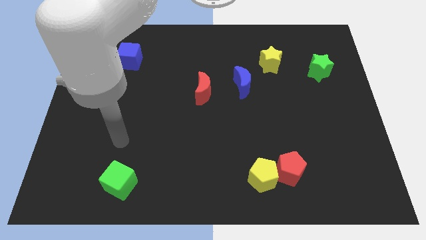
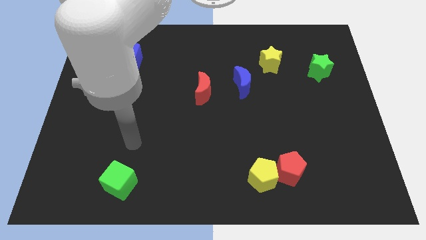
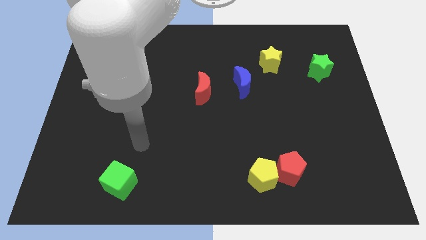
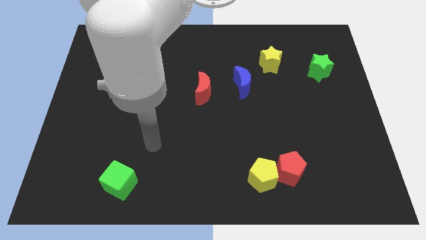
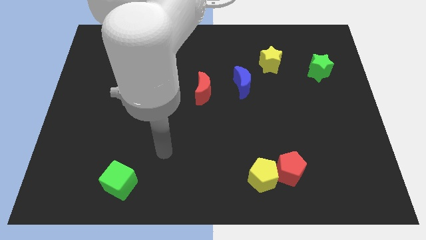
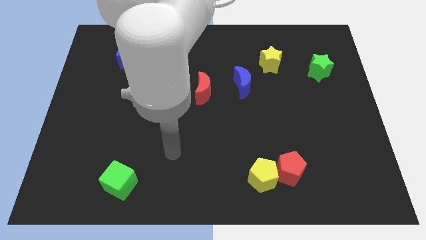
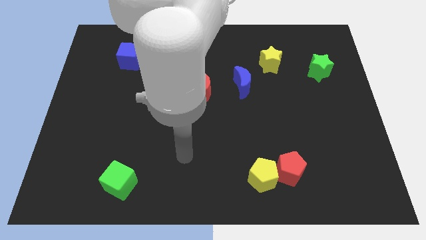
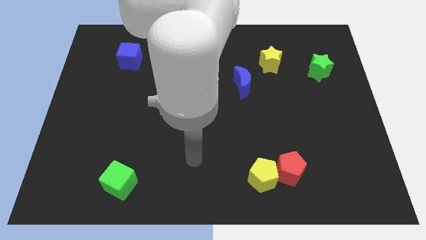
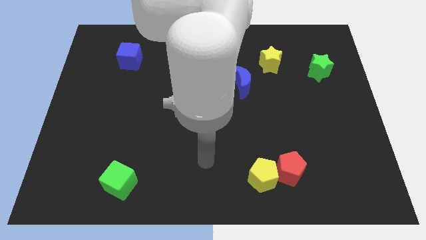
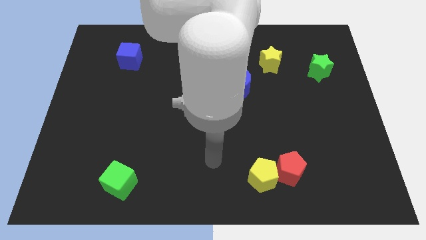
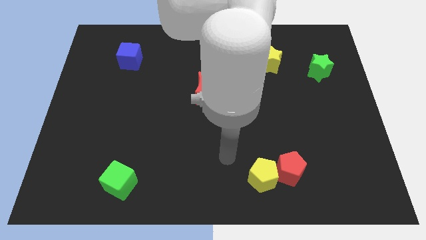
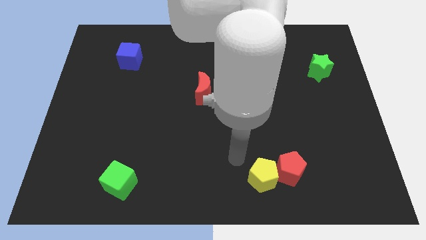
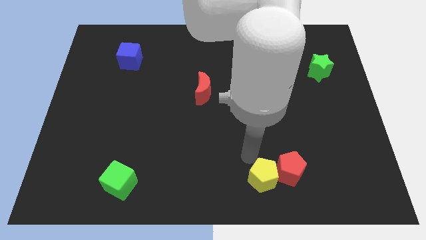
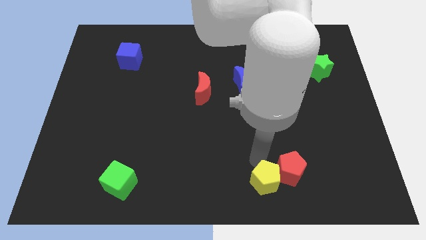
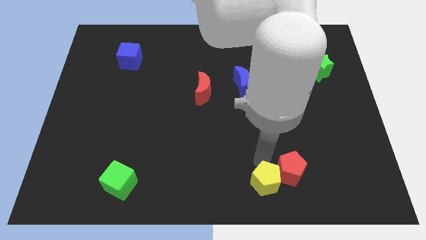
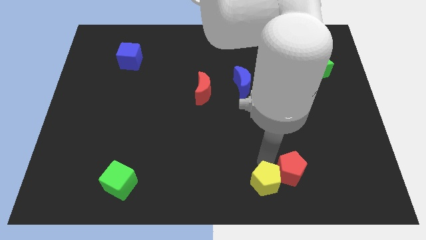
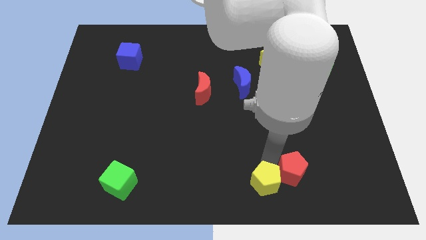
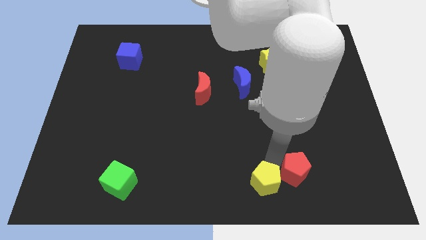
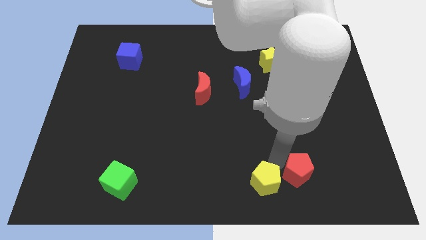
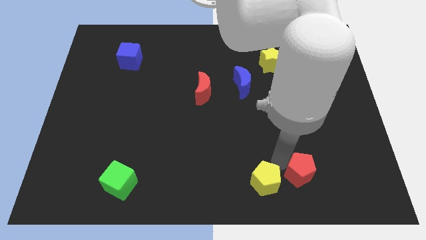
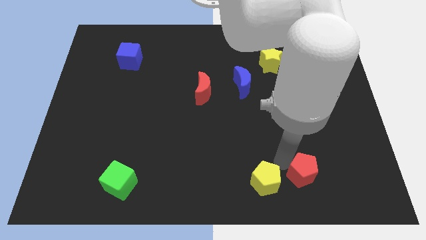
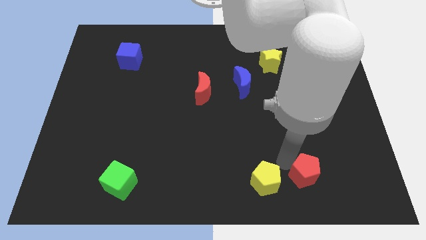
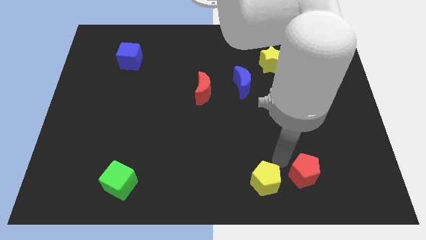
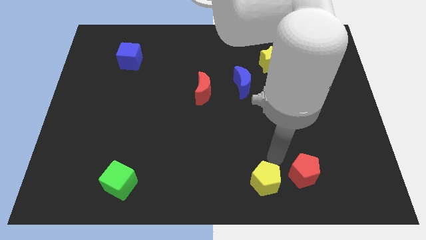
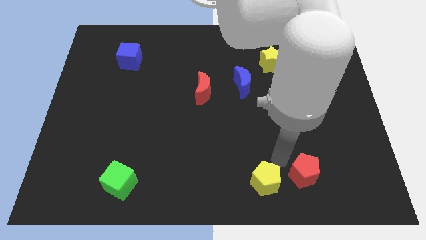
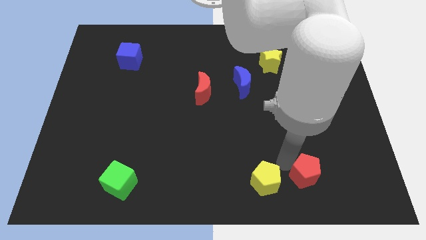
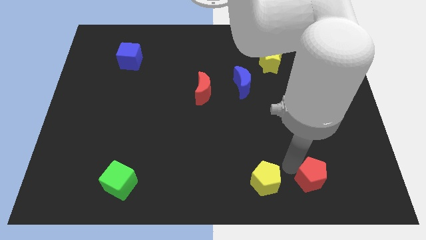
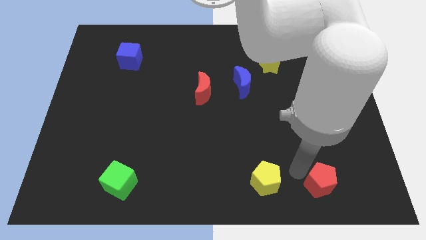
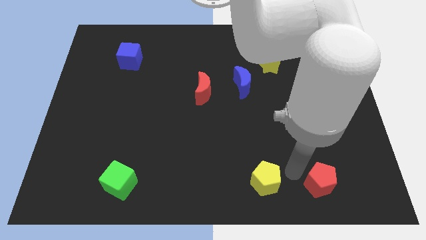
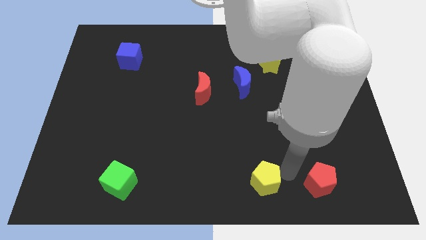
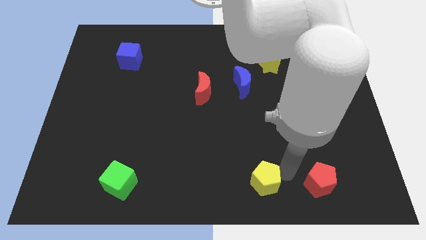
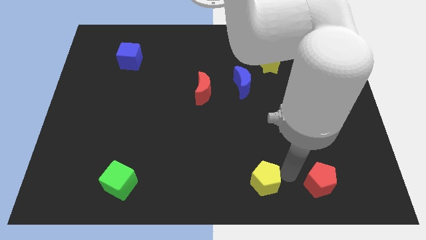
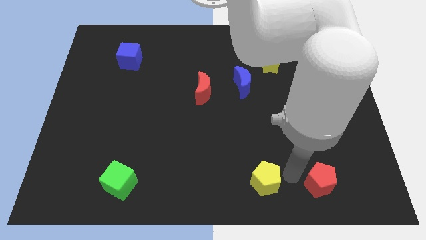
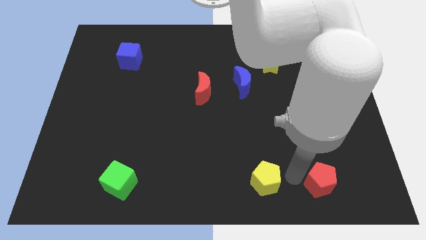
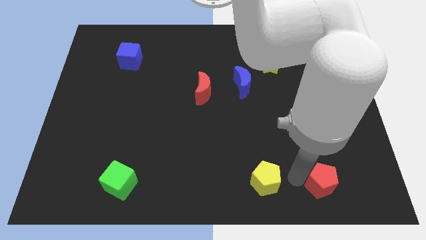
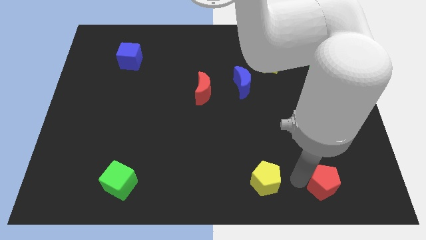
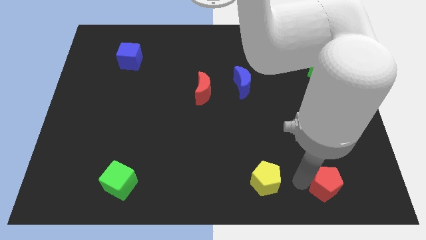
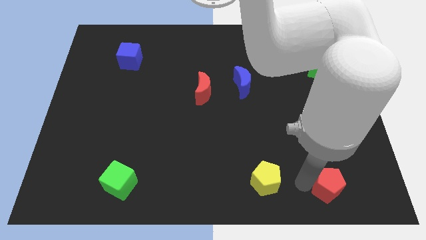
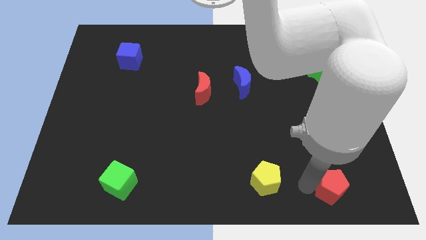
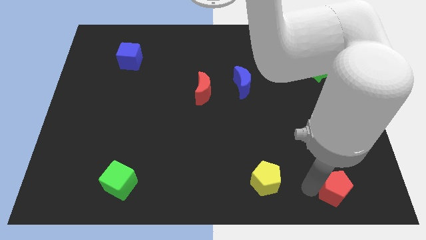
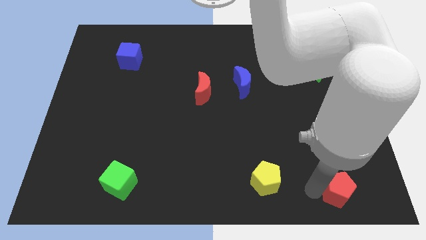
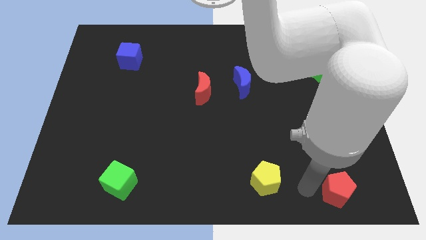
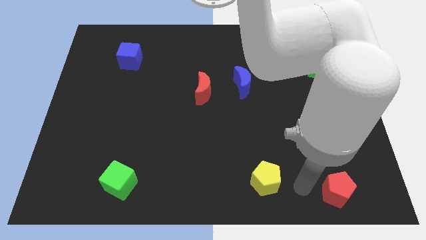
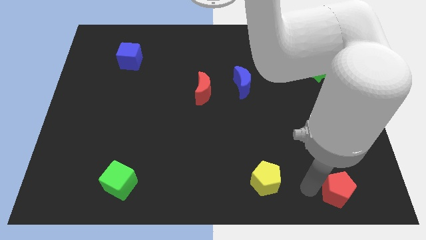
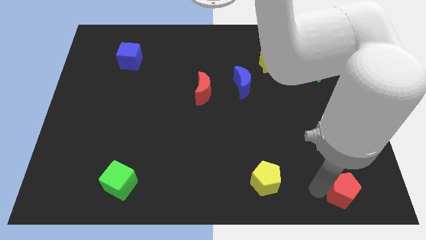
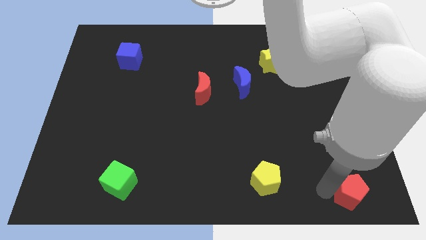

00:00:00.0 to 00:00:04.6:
move the red pentagon to the bottom right corner

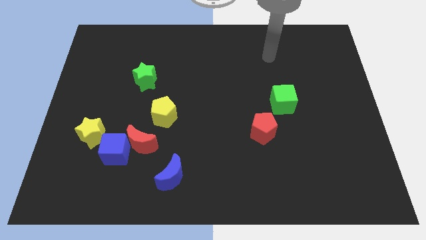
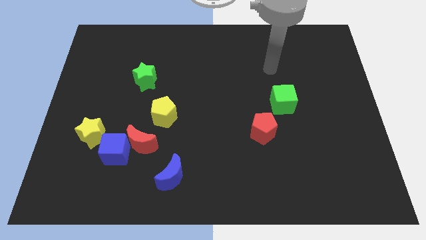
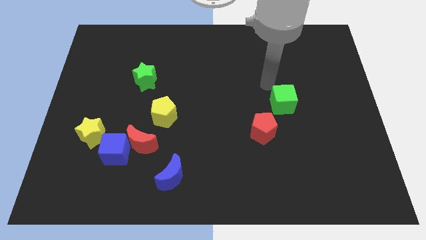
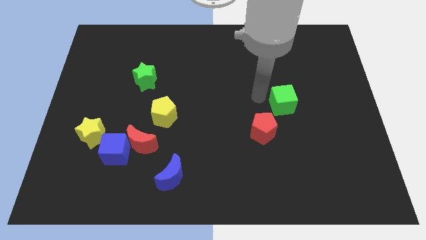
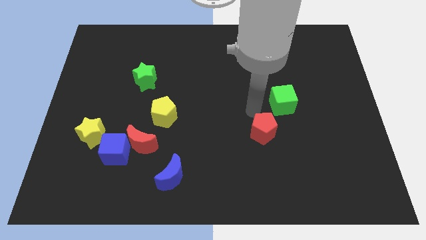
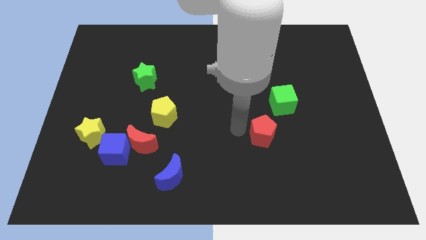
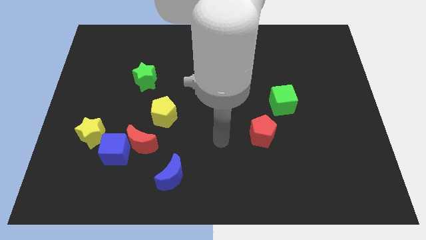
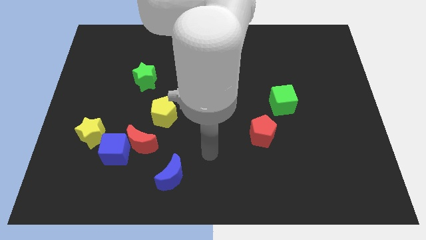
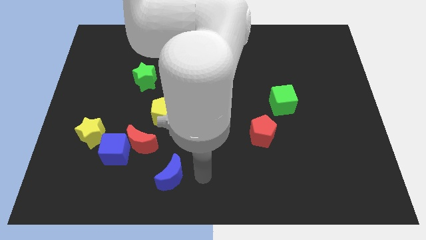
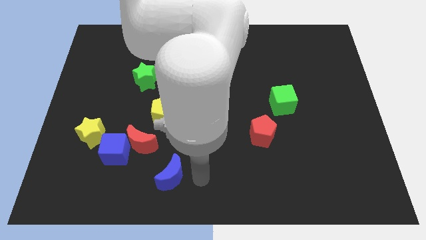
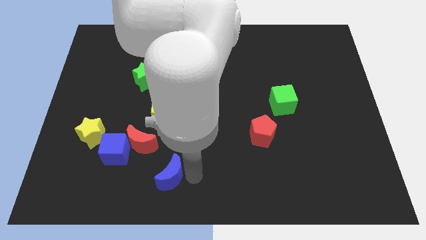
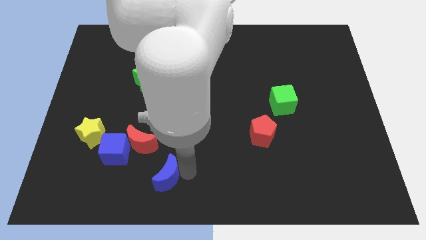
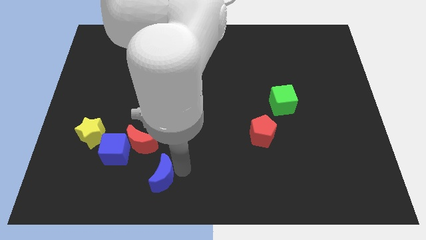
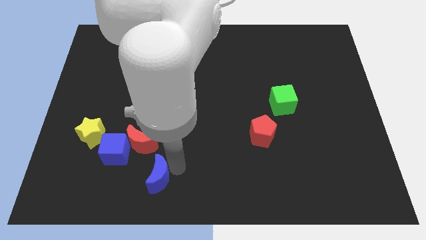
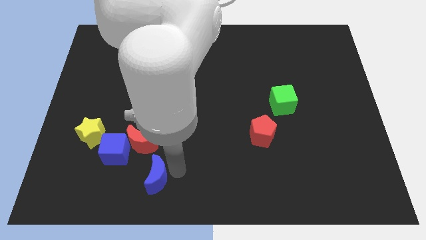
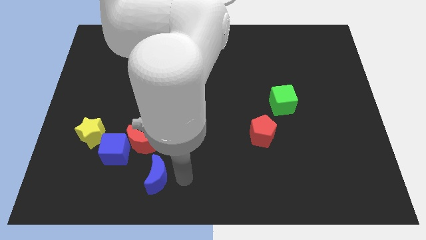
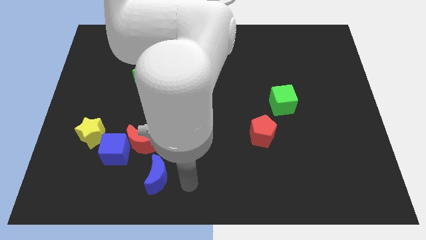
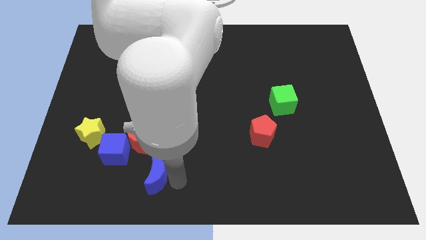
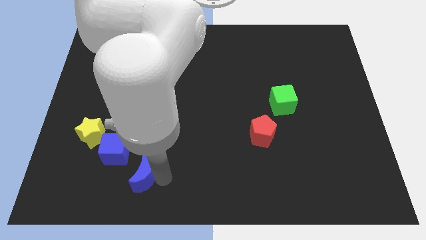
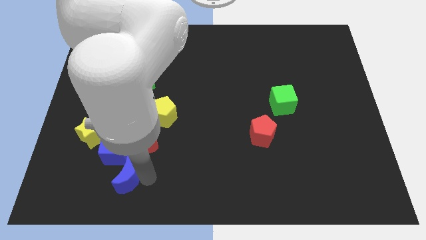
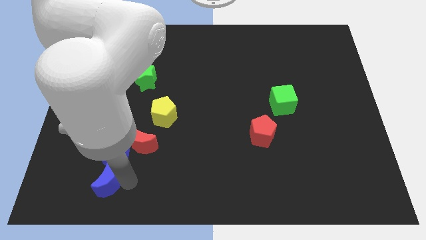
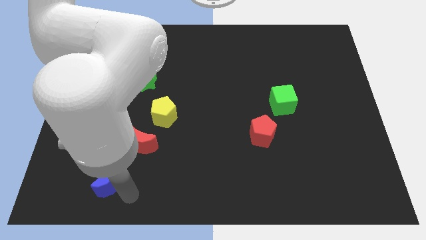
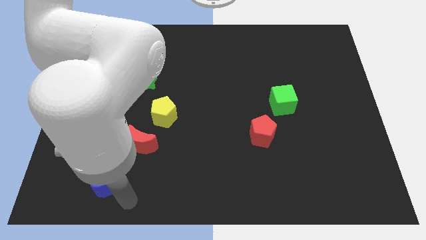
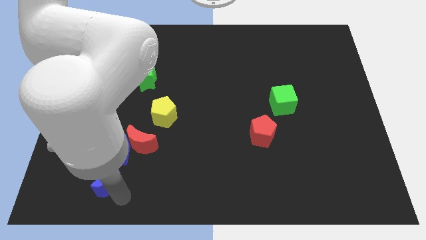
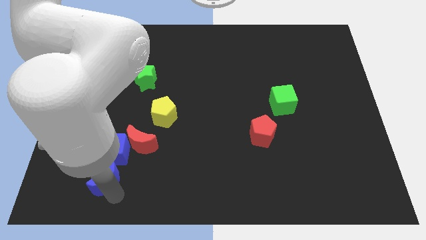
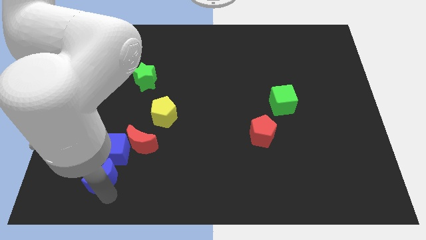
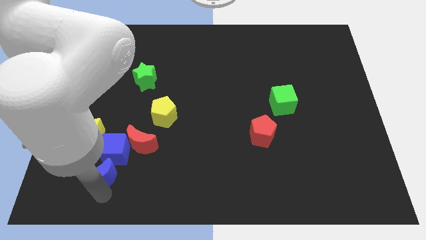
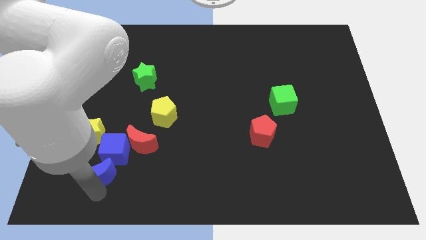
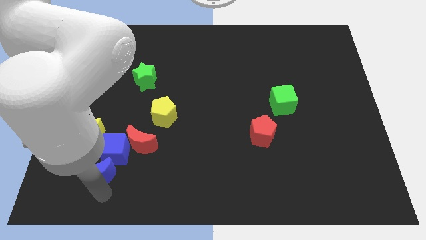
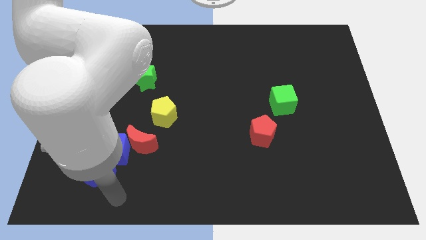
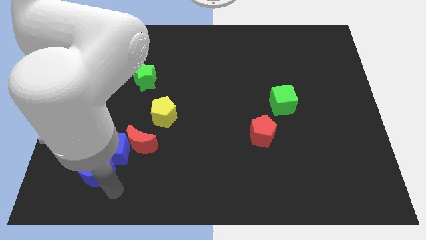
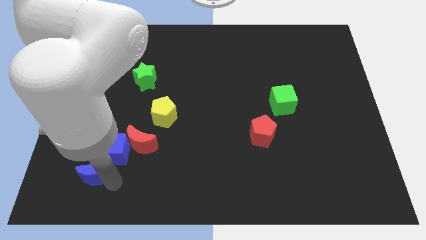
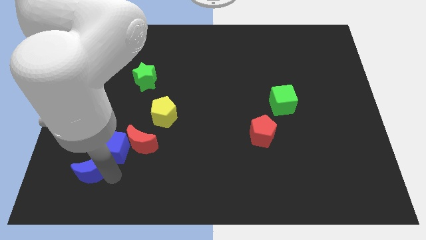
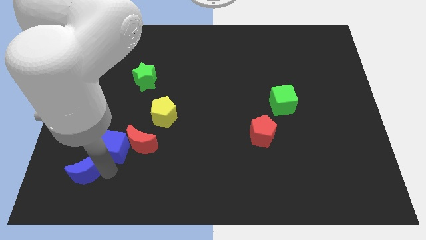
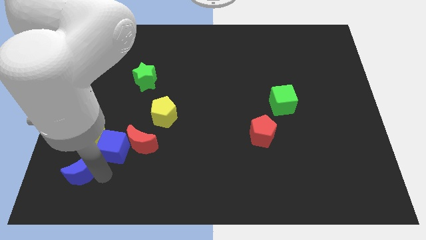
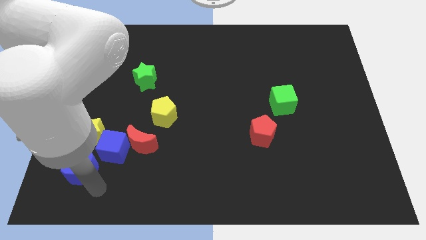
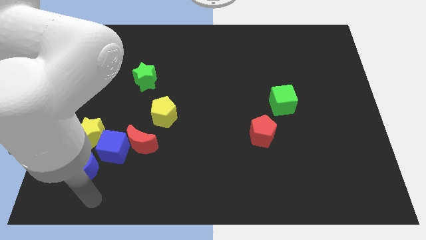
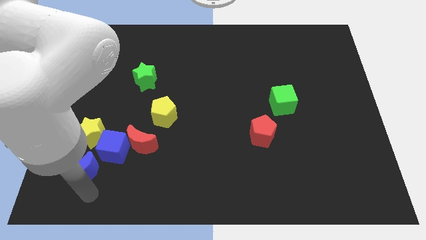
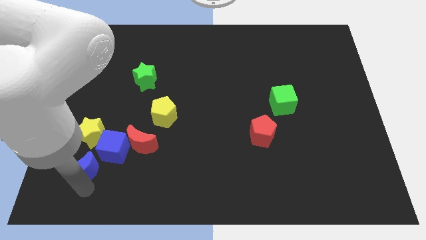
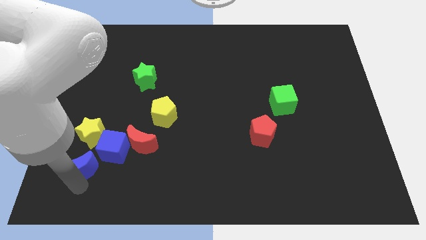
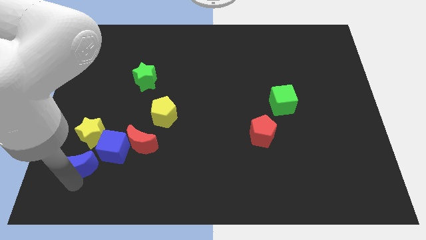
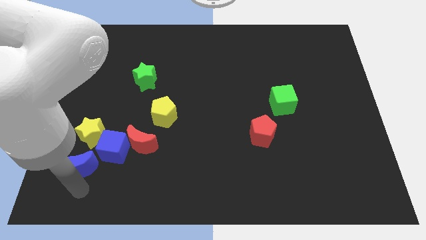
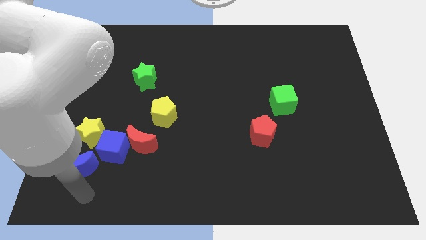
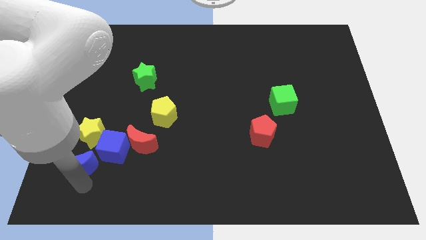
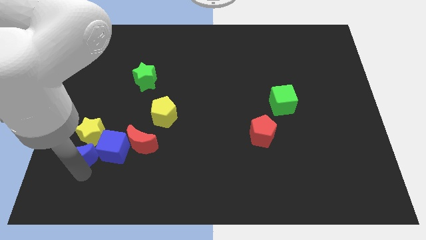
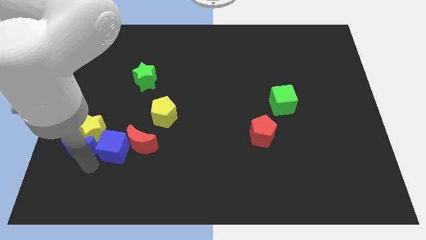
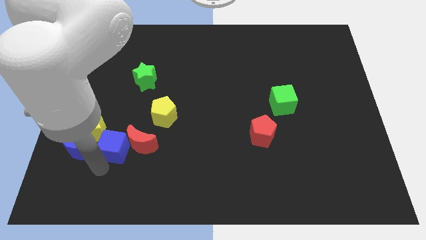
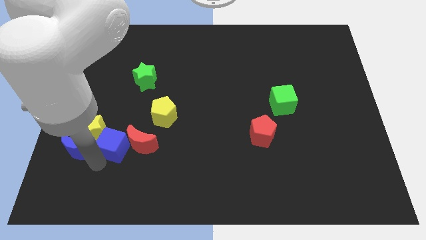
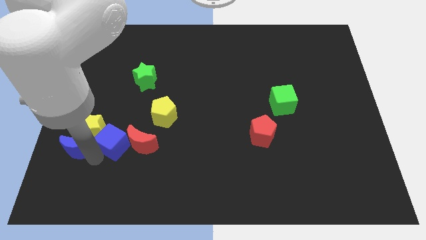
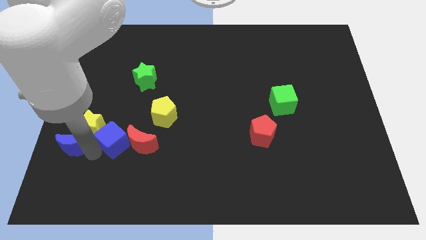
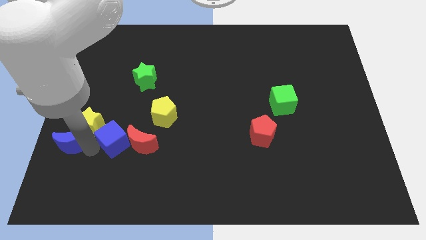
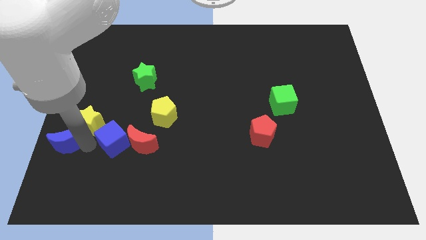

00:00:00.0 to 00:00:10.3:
put the blue moon to the left side of the board
